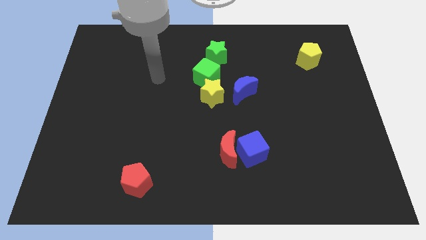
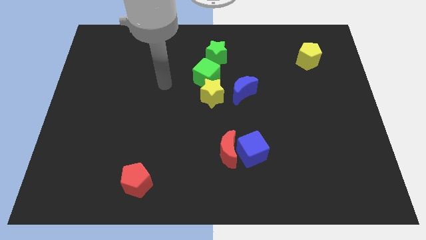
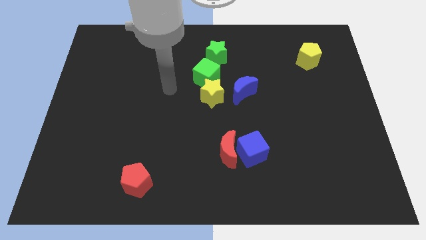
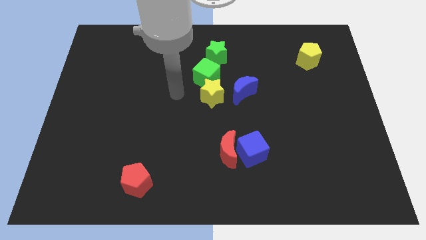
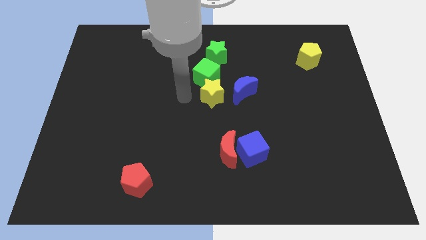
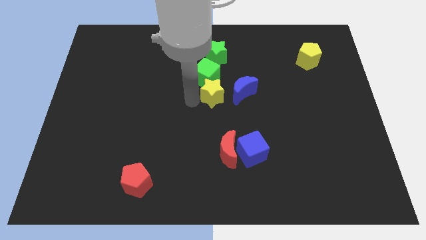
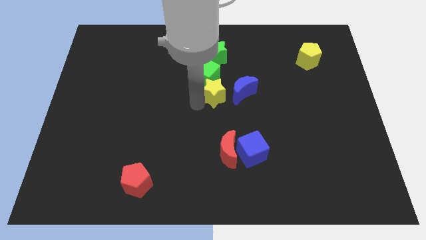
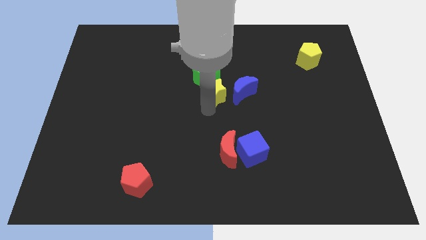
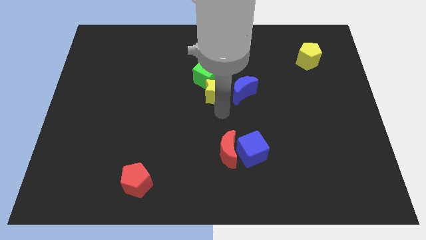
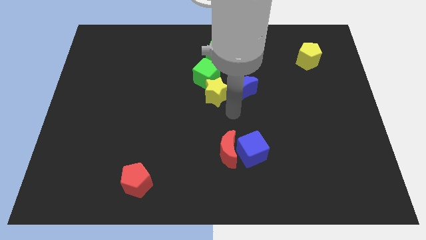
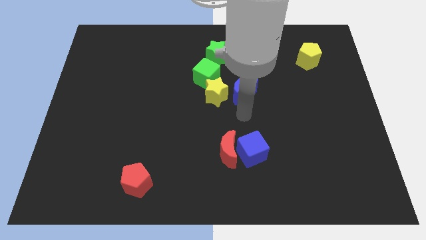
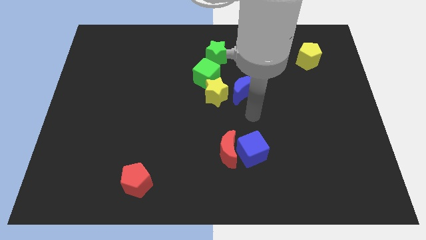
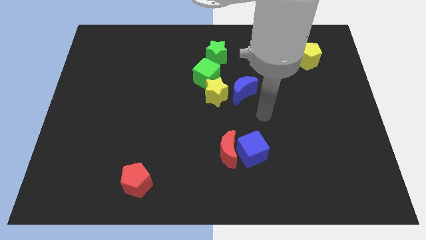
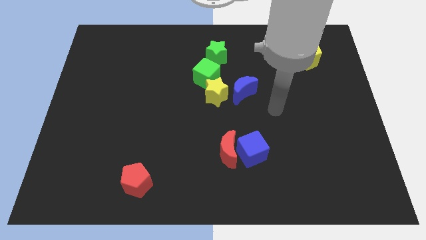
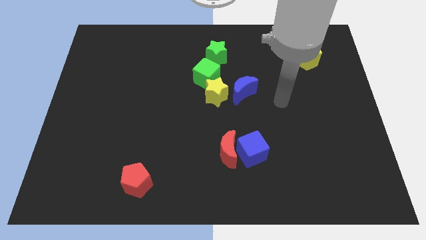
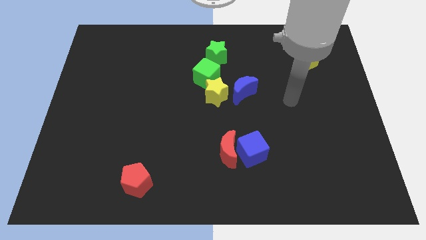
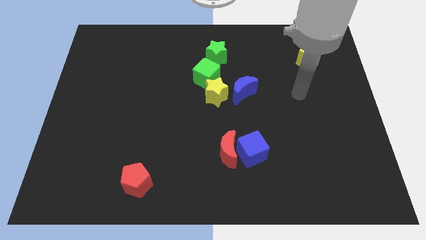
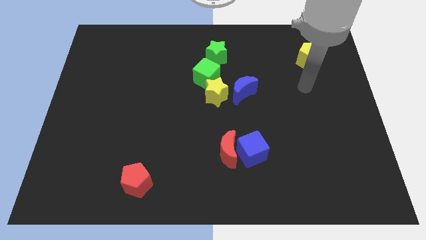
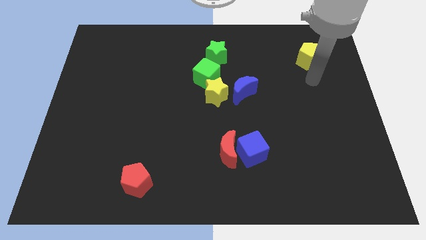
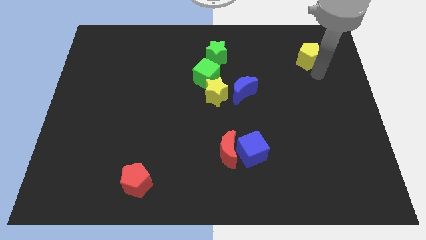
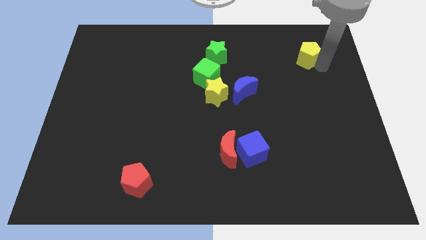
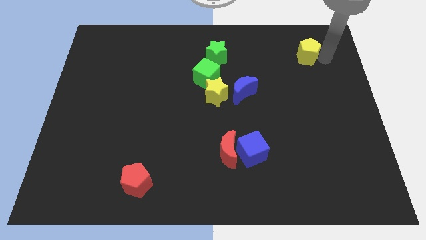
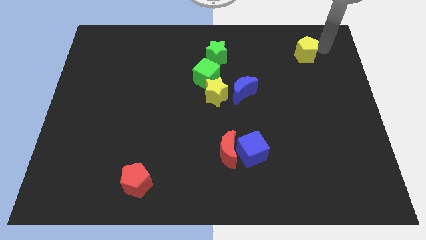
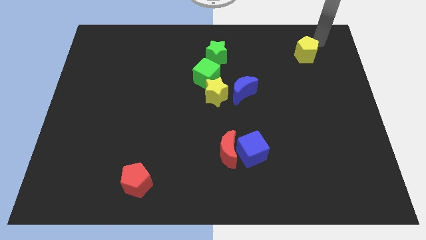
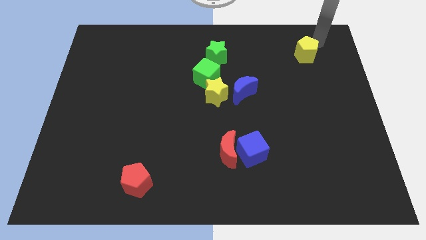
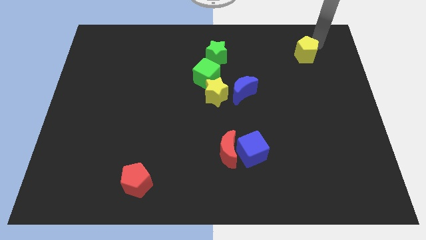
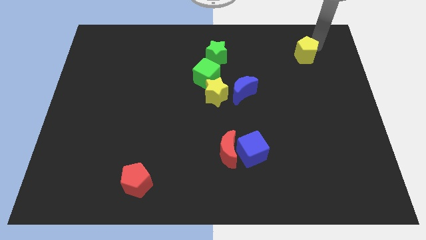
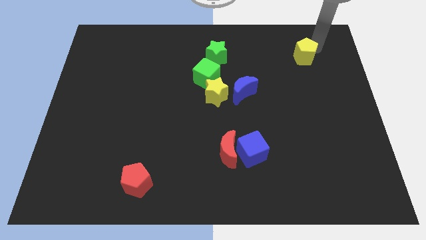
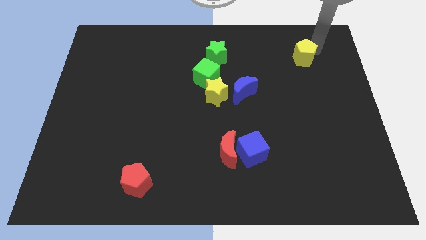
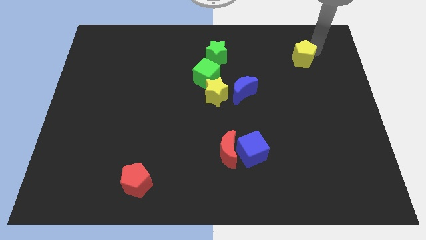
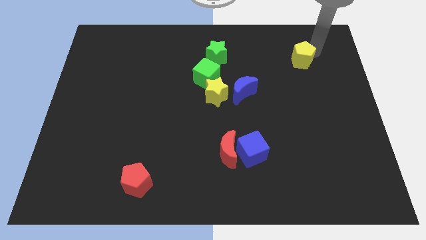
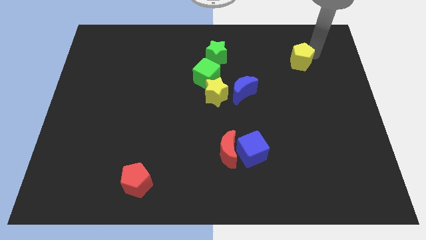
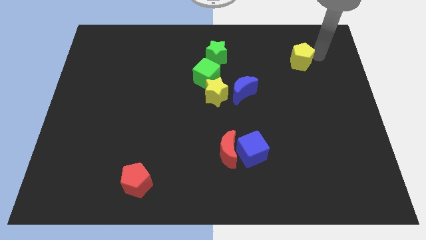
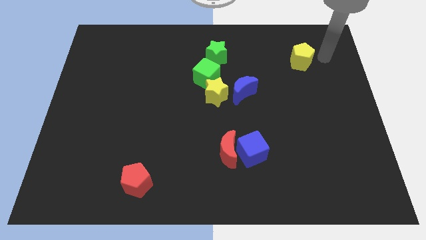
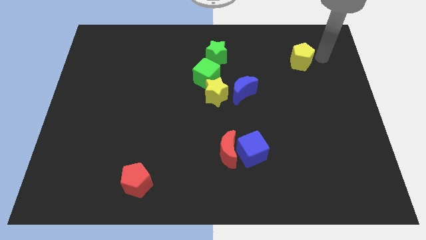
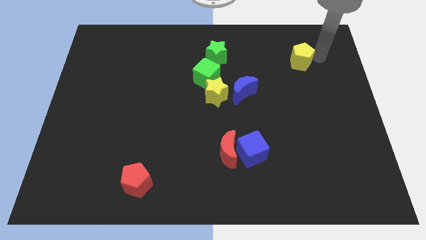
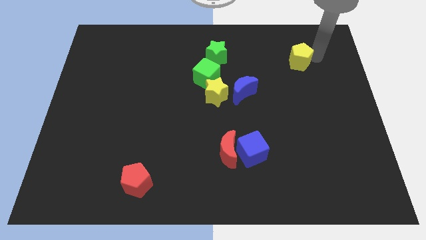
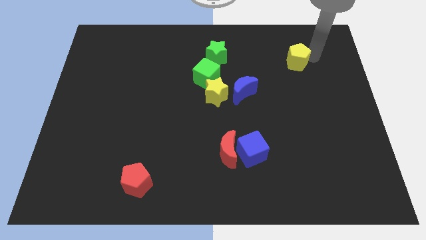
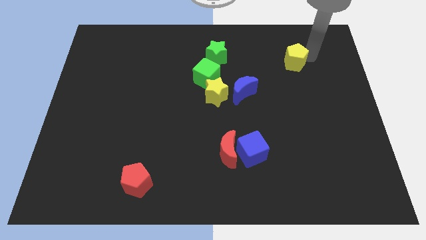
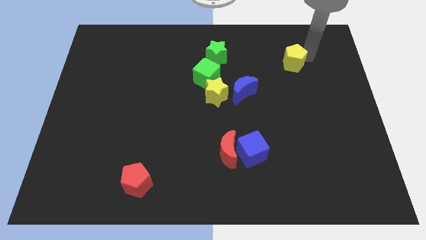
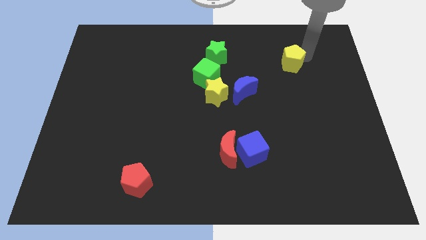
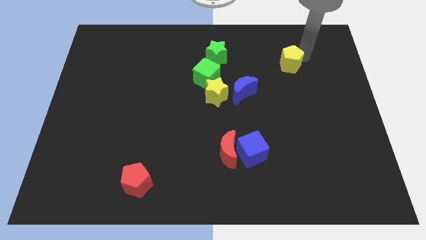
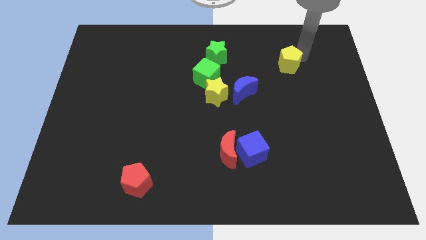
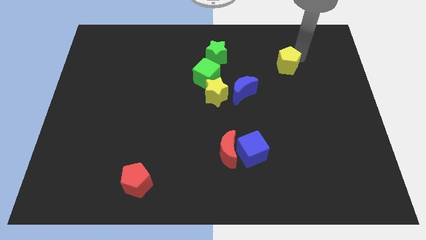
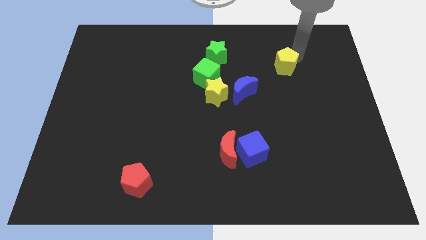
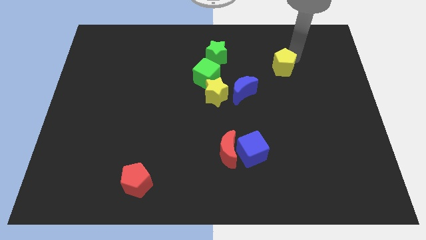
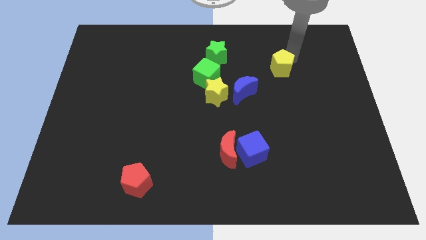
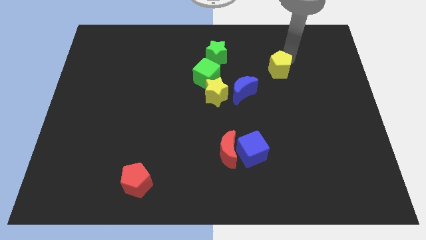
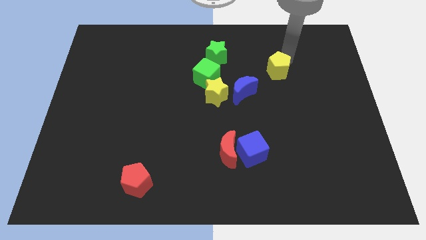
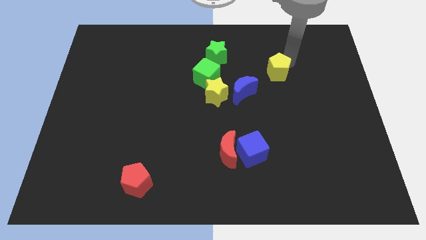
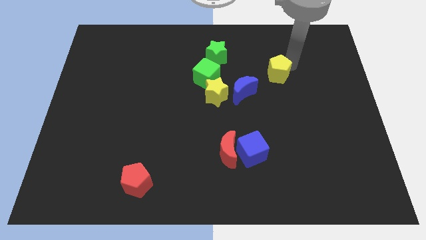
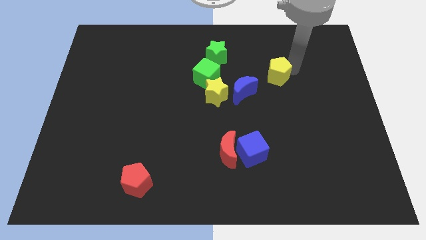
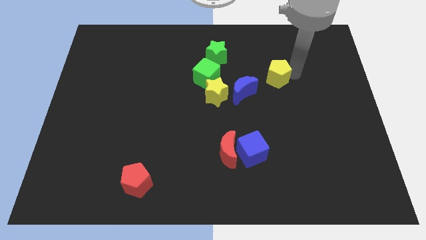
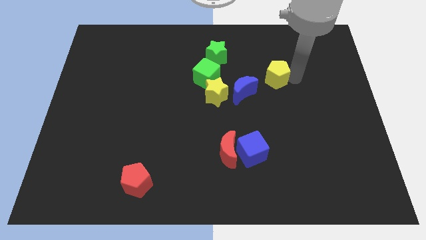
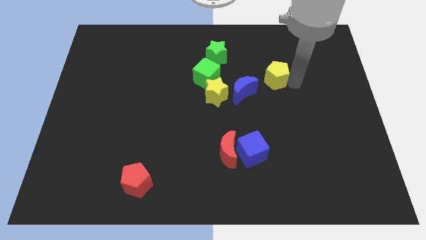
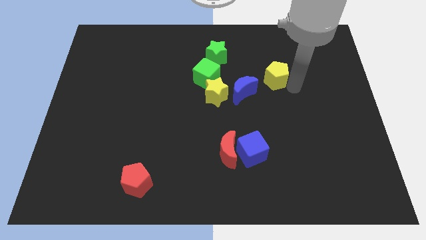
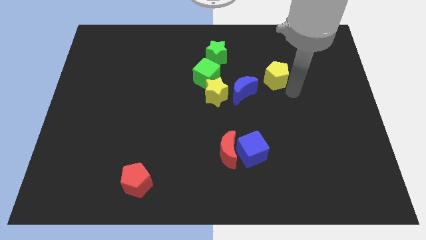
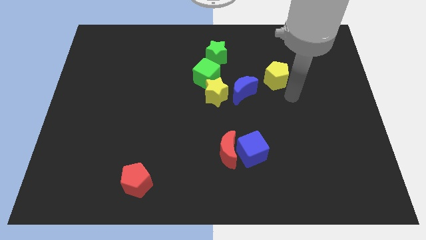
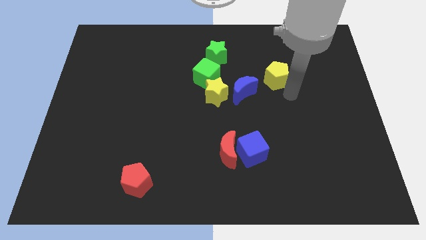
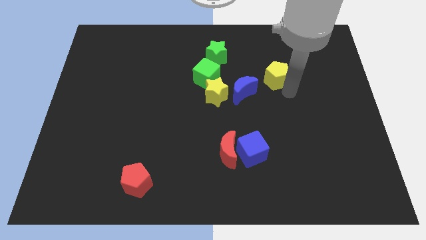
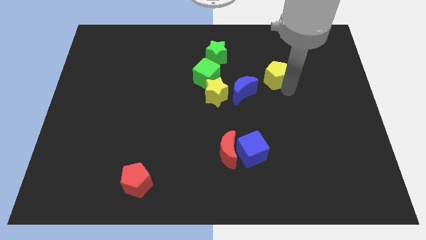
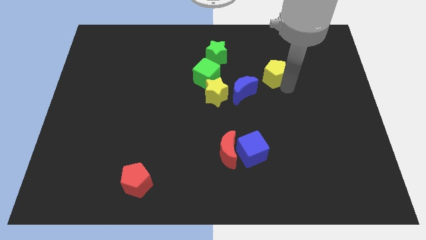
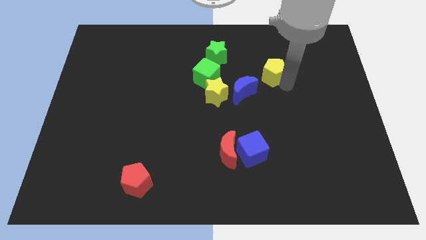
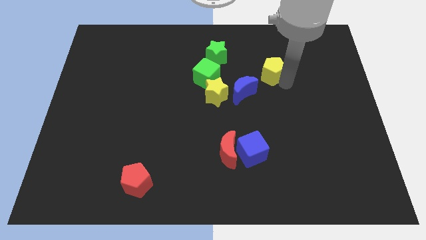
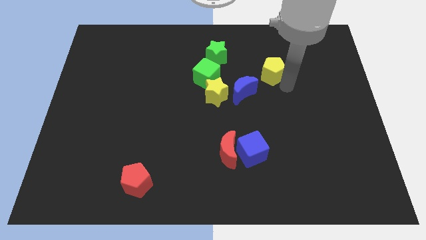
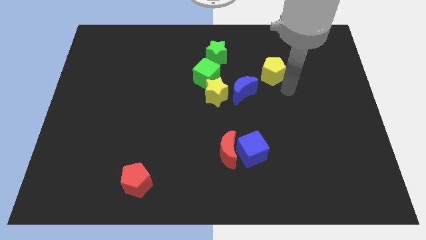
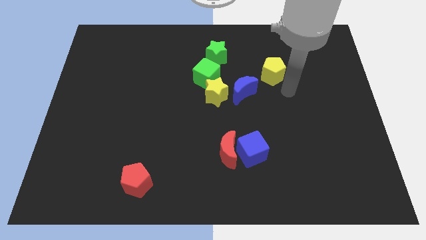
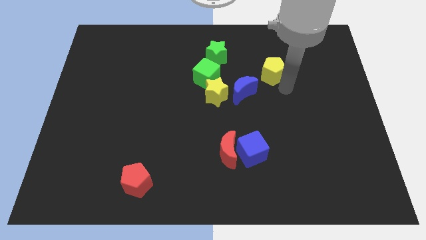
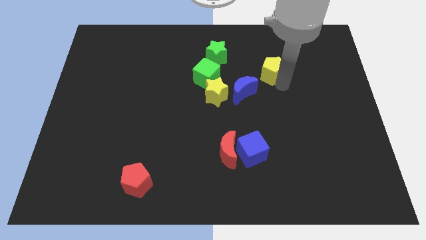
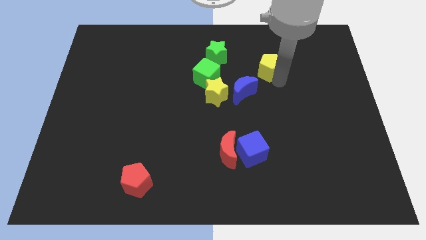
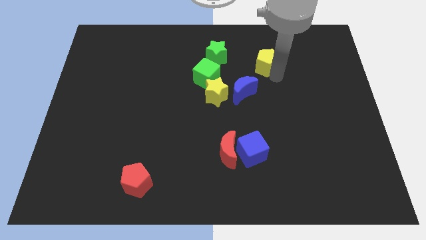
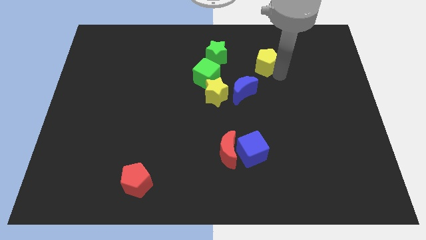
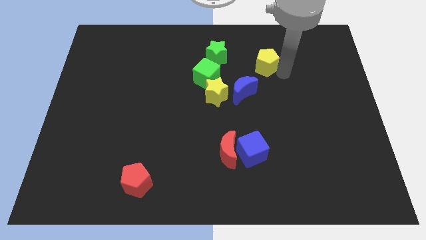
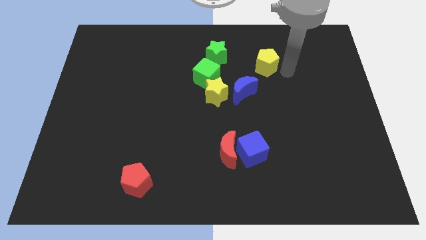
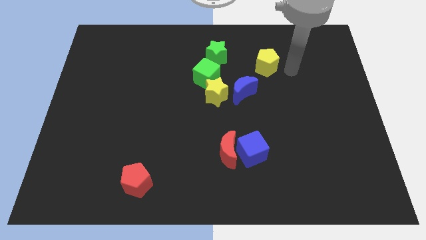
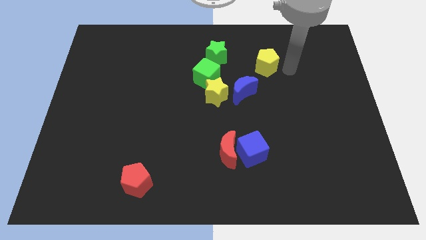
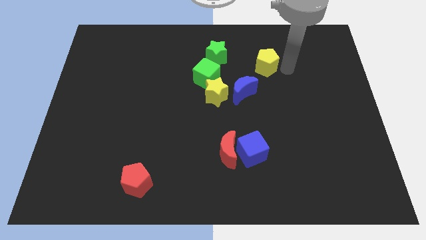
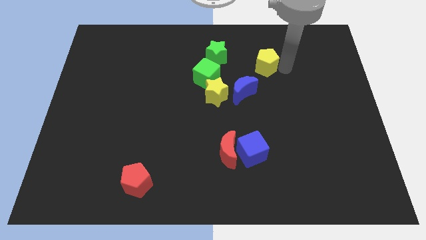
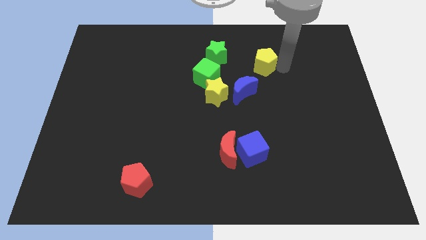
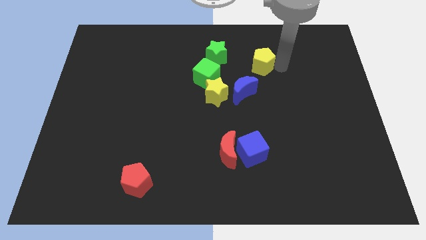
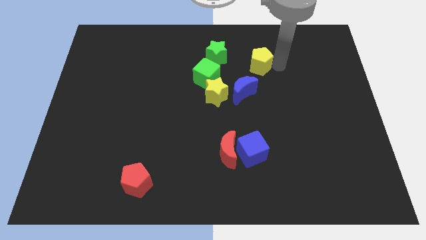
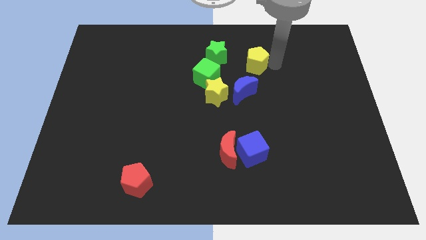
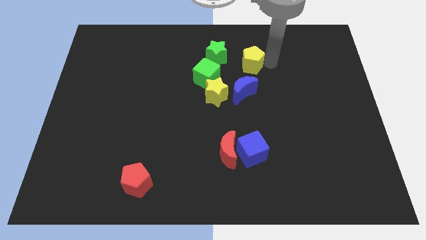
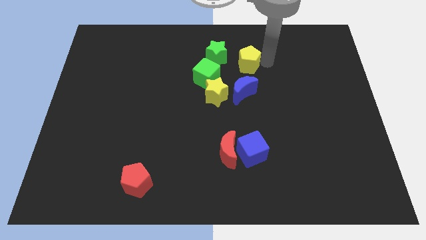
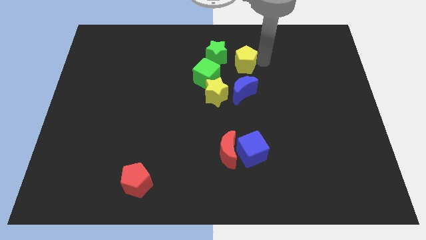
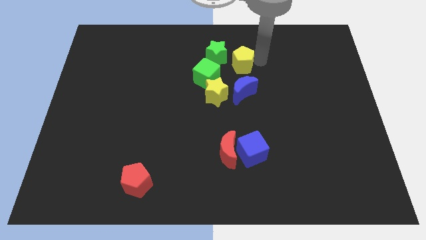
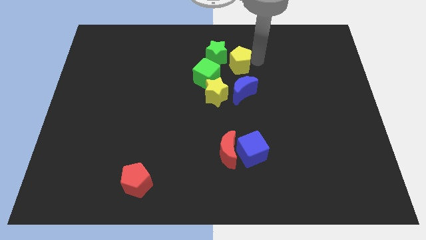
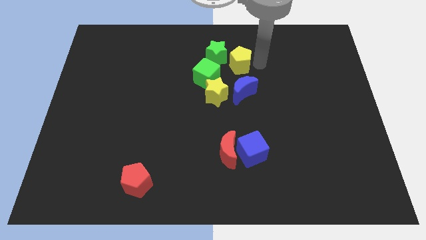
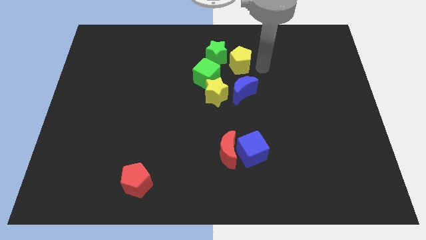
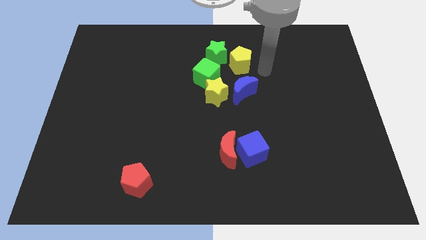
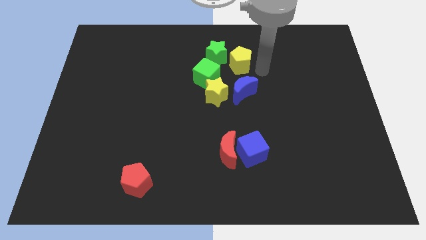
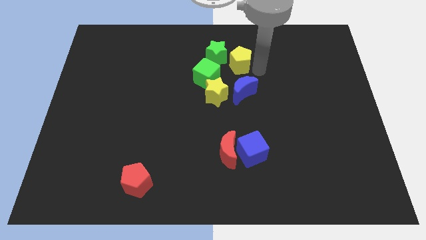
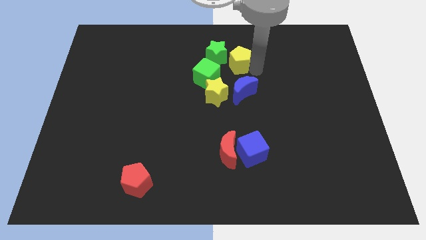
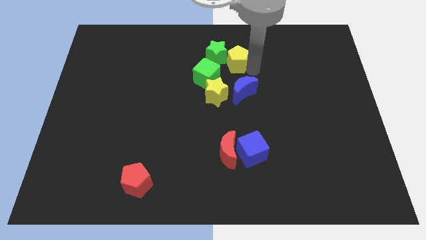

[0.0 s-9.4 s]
move the yellow pentagon to the green star
